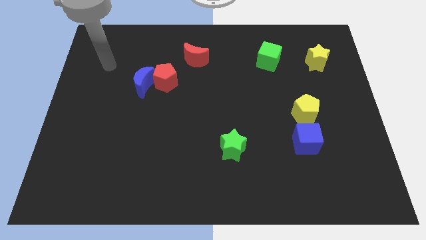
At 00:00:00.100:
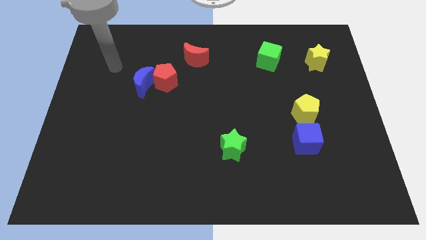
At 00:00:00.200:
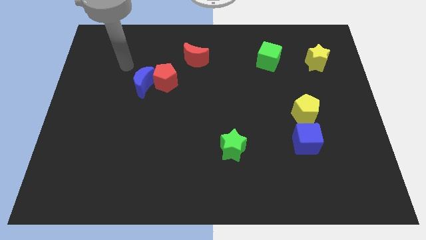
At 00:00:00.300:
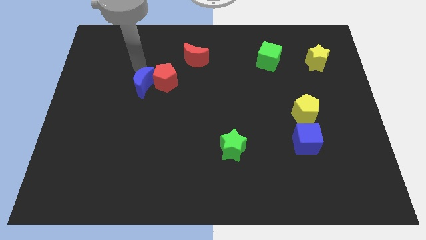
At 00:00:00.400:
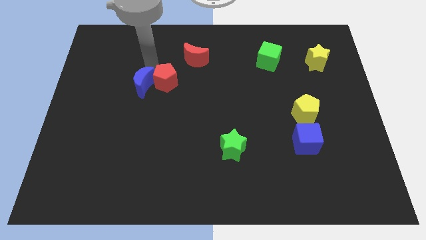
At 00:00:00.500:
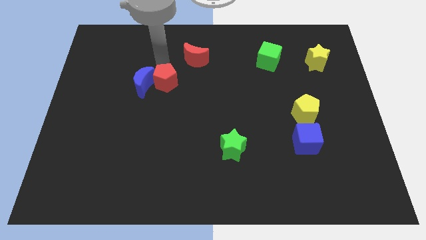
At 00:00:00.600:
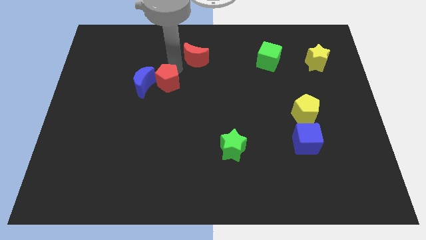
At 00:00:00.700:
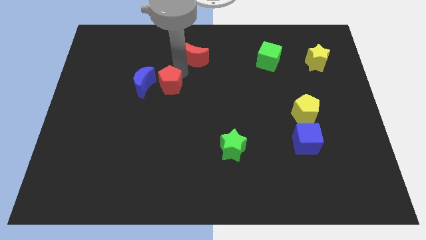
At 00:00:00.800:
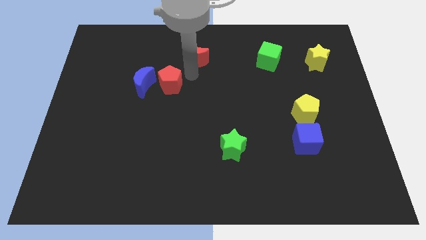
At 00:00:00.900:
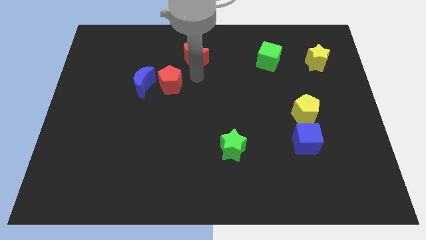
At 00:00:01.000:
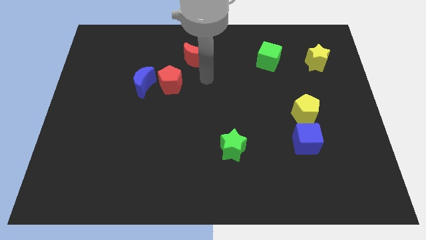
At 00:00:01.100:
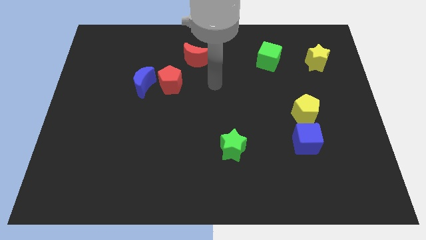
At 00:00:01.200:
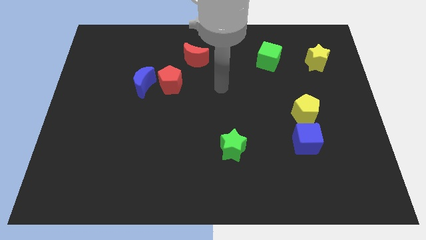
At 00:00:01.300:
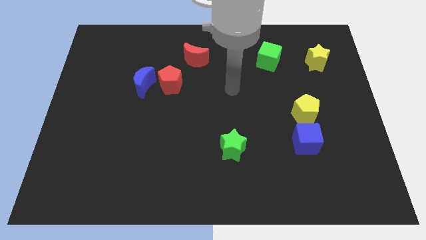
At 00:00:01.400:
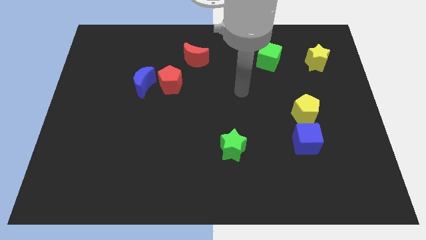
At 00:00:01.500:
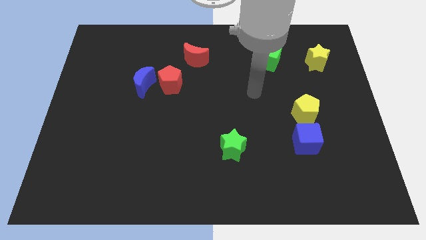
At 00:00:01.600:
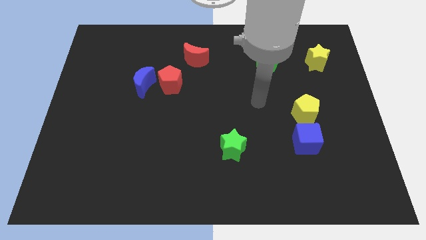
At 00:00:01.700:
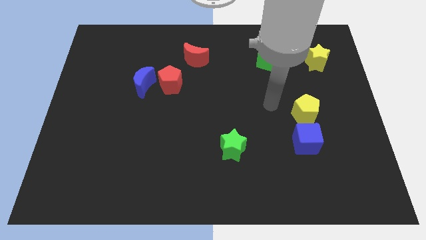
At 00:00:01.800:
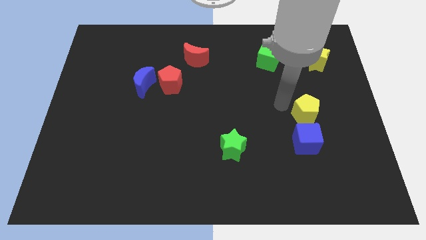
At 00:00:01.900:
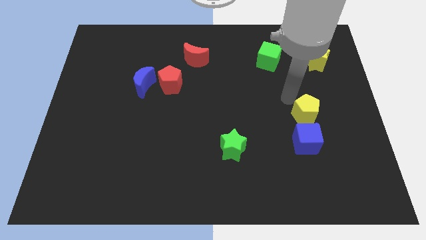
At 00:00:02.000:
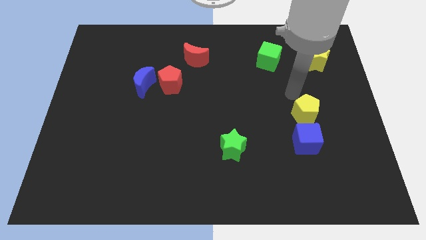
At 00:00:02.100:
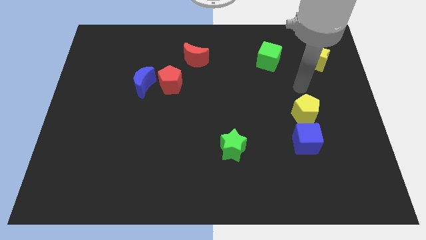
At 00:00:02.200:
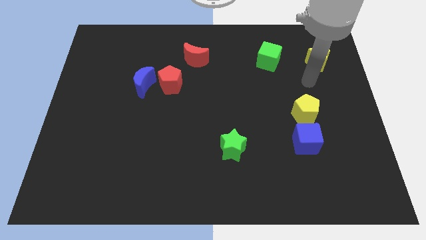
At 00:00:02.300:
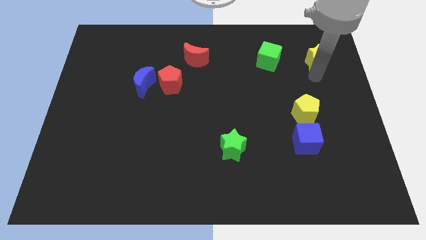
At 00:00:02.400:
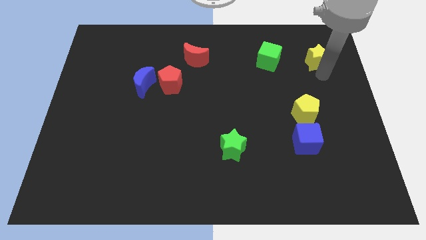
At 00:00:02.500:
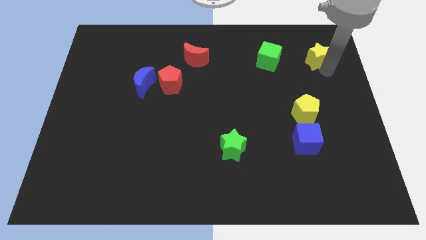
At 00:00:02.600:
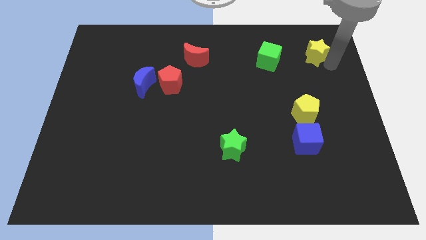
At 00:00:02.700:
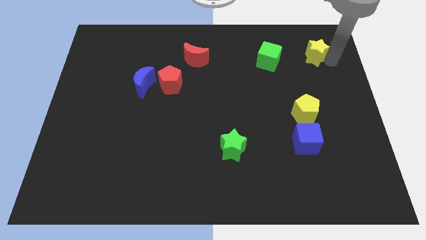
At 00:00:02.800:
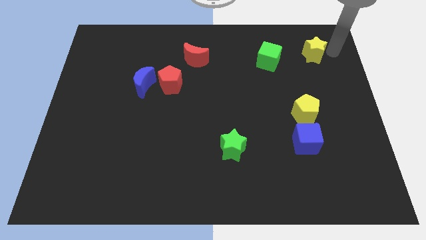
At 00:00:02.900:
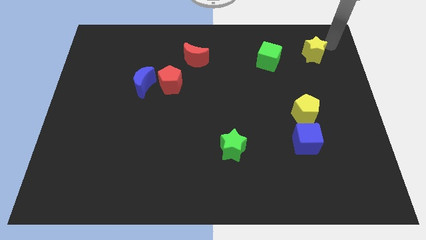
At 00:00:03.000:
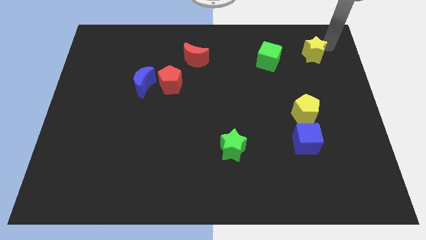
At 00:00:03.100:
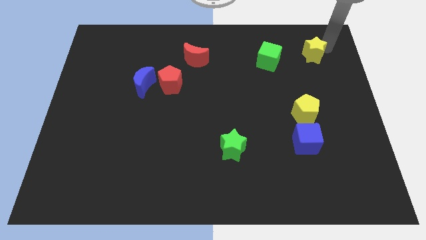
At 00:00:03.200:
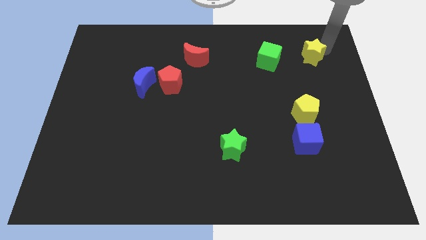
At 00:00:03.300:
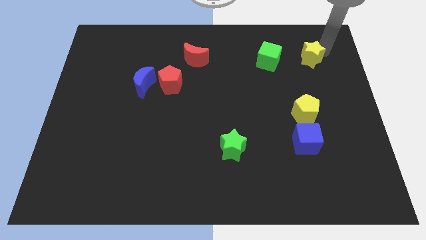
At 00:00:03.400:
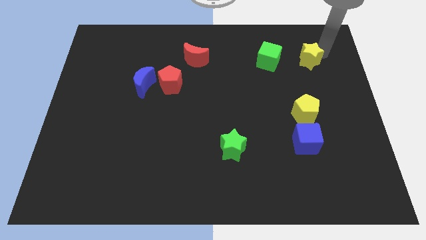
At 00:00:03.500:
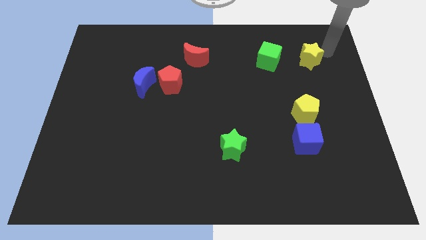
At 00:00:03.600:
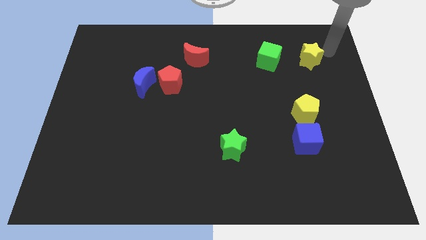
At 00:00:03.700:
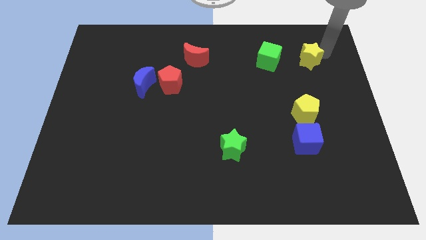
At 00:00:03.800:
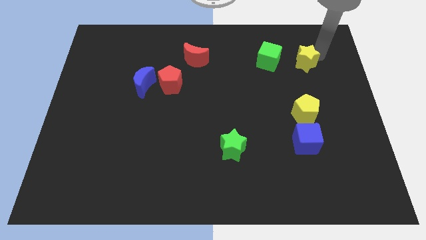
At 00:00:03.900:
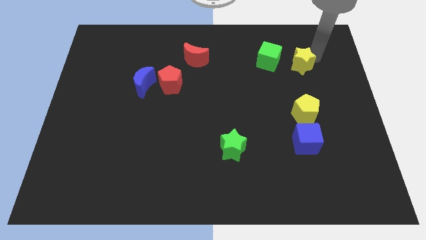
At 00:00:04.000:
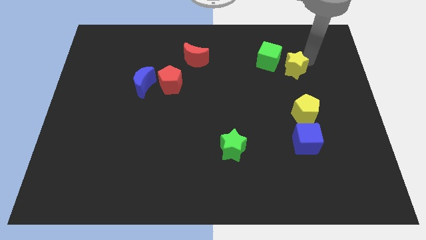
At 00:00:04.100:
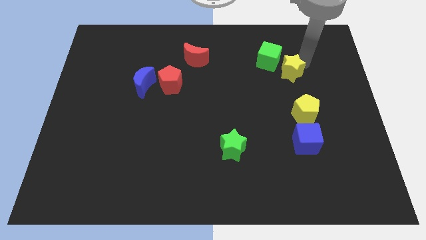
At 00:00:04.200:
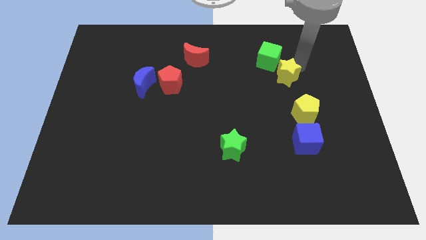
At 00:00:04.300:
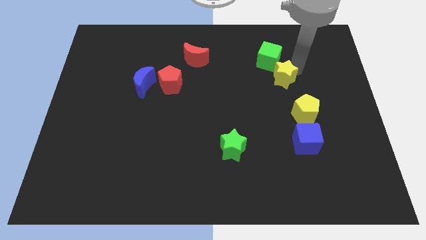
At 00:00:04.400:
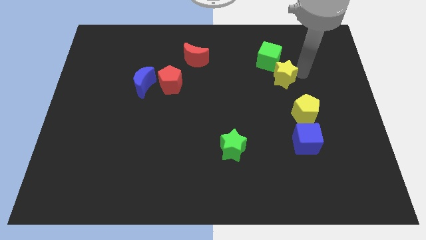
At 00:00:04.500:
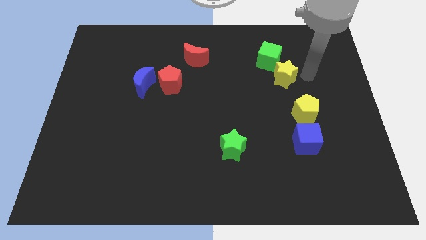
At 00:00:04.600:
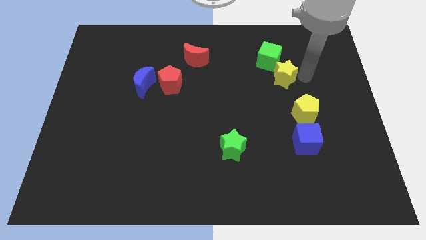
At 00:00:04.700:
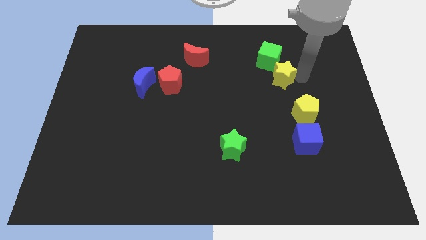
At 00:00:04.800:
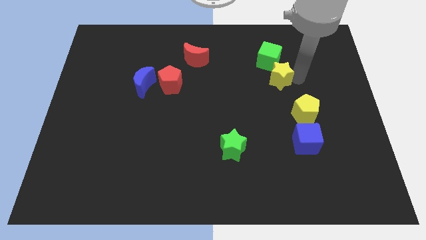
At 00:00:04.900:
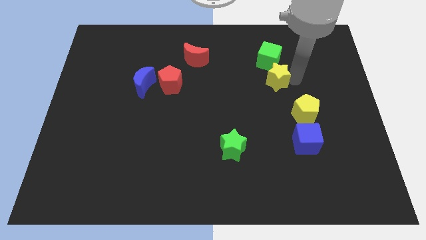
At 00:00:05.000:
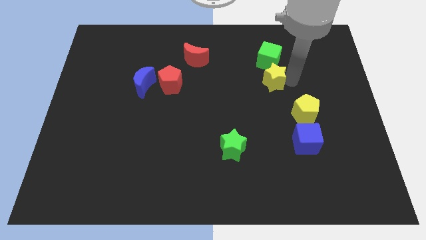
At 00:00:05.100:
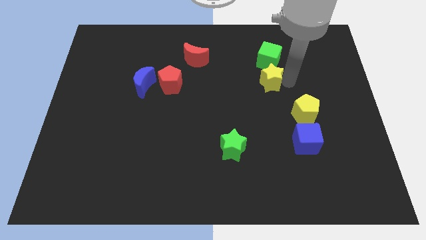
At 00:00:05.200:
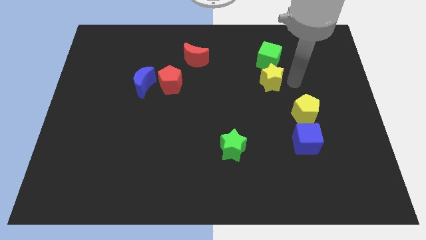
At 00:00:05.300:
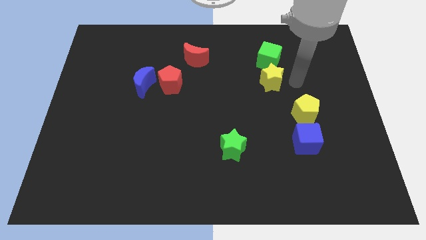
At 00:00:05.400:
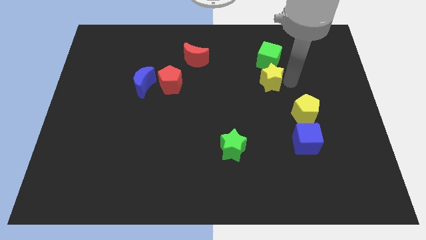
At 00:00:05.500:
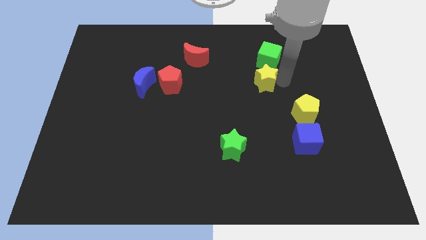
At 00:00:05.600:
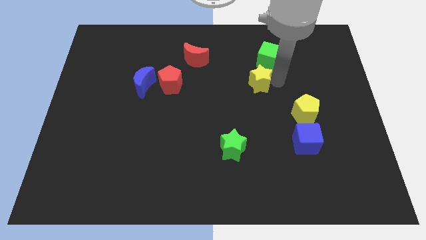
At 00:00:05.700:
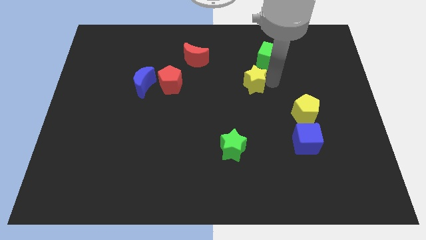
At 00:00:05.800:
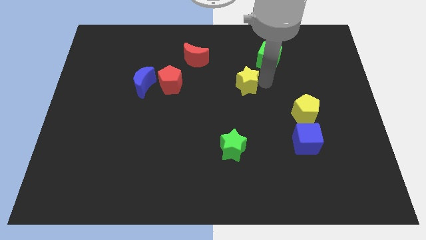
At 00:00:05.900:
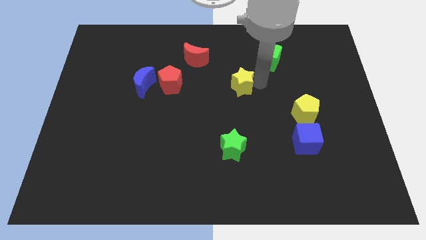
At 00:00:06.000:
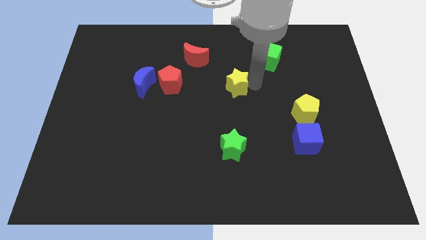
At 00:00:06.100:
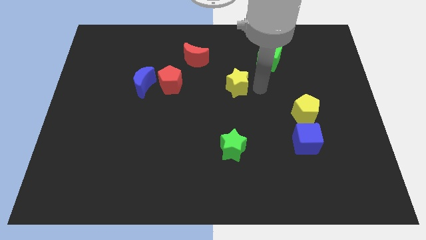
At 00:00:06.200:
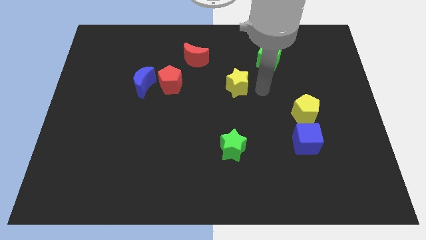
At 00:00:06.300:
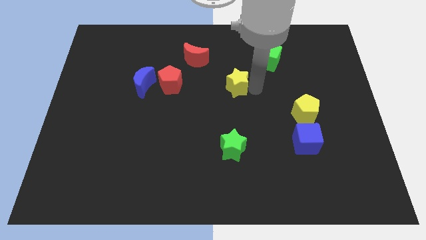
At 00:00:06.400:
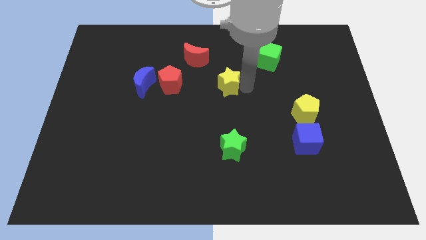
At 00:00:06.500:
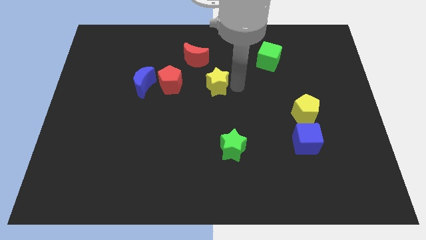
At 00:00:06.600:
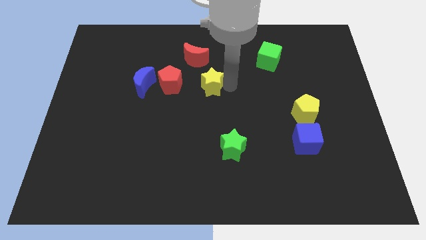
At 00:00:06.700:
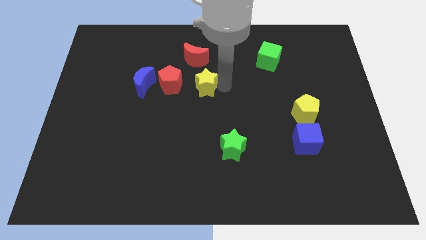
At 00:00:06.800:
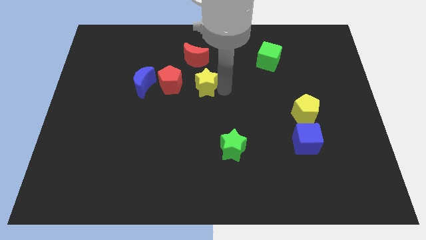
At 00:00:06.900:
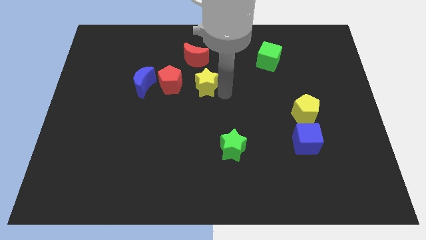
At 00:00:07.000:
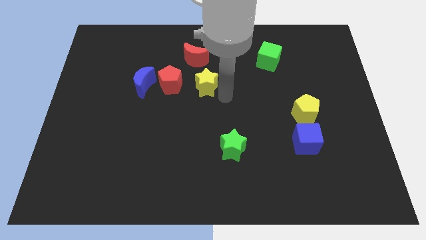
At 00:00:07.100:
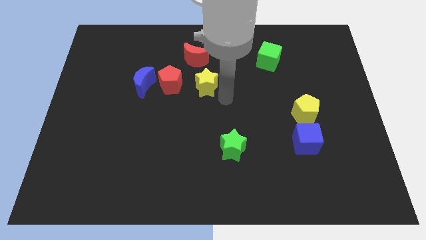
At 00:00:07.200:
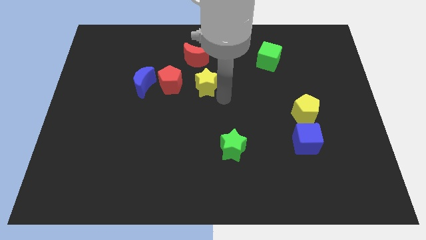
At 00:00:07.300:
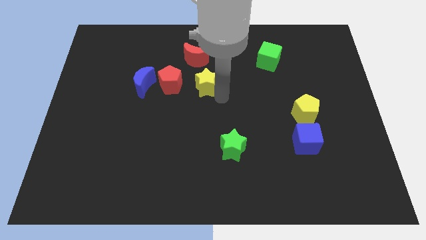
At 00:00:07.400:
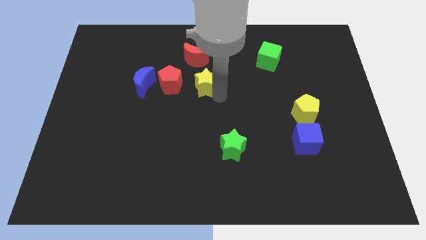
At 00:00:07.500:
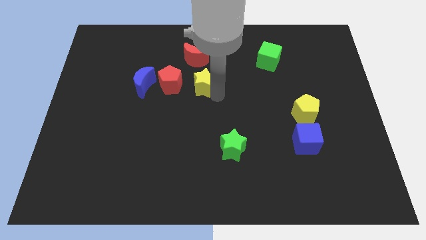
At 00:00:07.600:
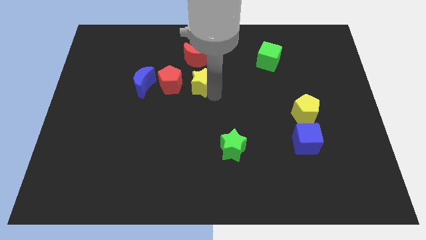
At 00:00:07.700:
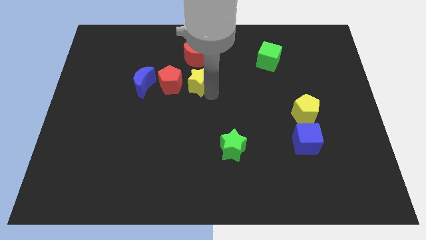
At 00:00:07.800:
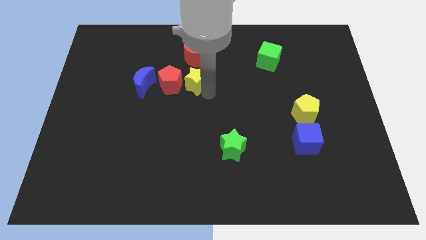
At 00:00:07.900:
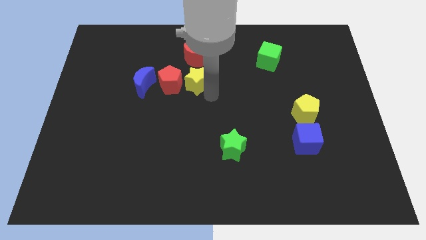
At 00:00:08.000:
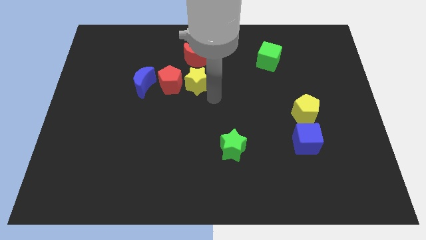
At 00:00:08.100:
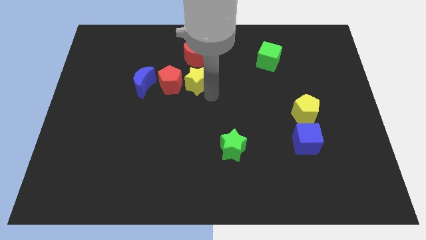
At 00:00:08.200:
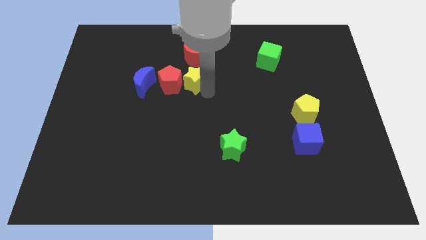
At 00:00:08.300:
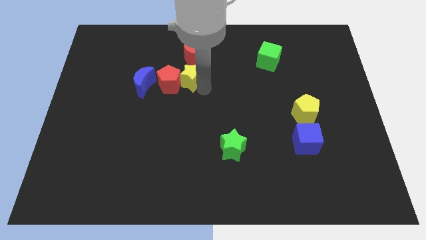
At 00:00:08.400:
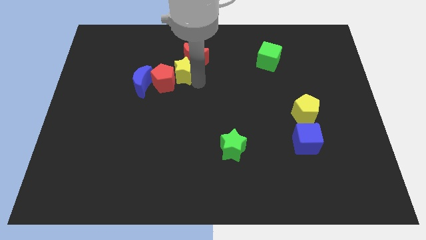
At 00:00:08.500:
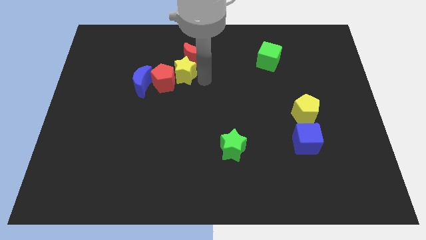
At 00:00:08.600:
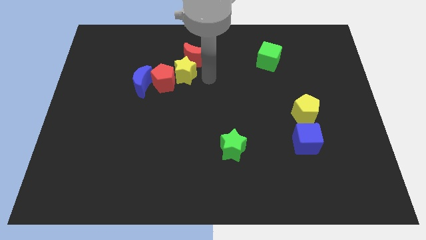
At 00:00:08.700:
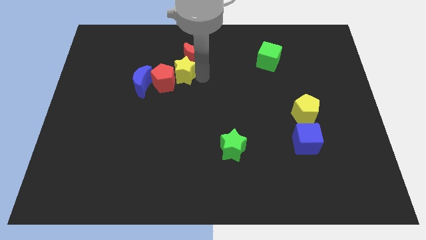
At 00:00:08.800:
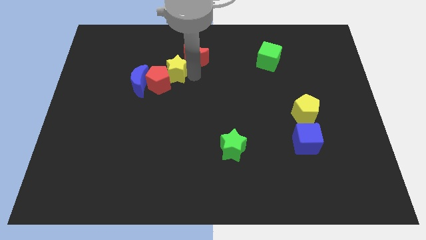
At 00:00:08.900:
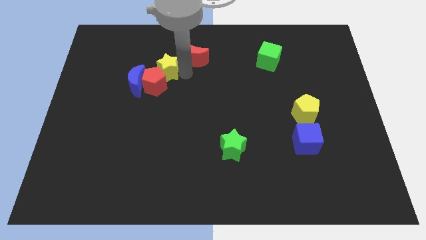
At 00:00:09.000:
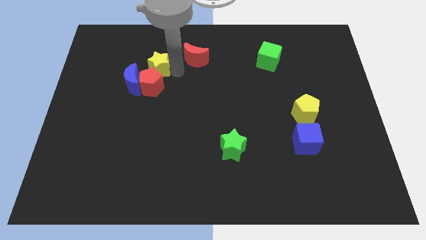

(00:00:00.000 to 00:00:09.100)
slide the yellow star to the top left of the red pentagon
